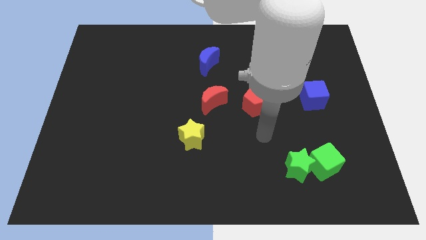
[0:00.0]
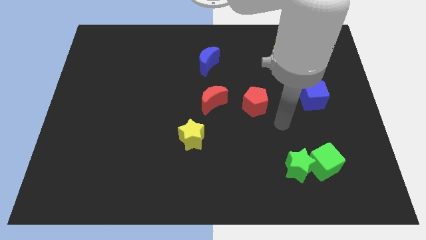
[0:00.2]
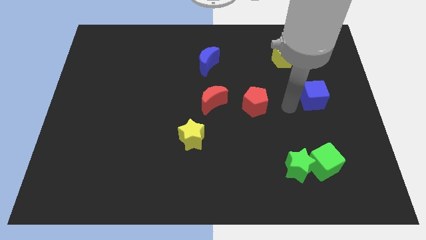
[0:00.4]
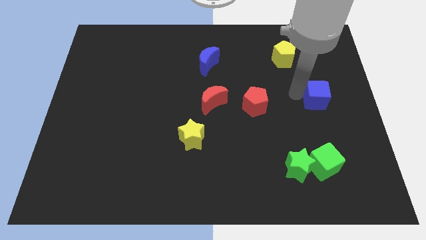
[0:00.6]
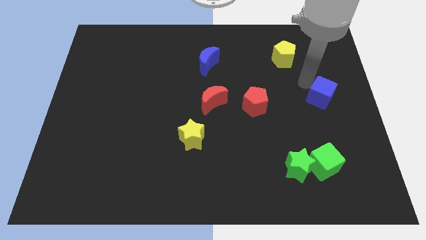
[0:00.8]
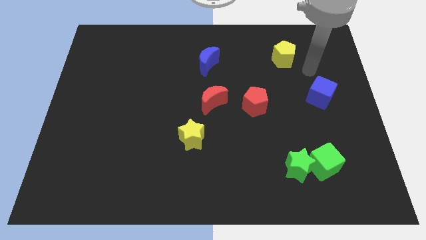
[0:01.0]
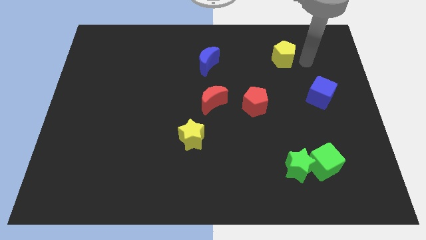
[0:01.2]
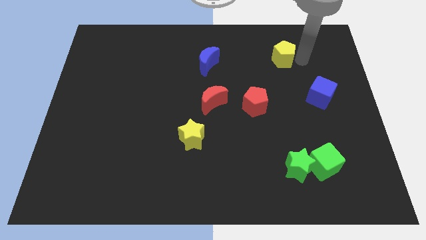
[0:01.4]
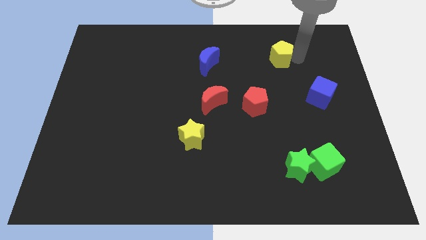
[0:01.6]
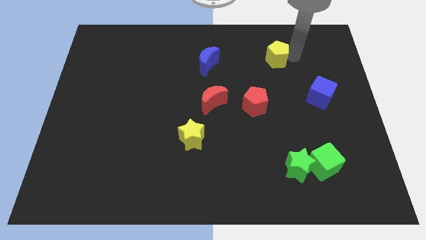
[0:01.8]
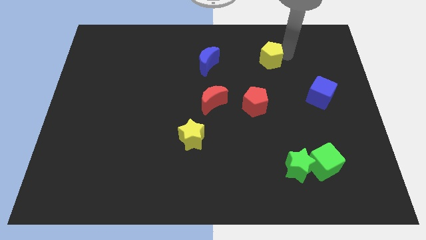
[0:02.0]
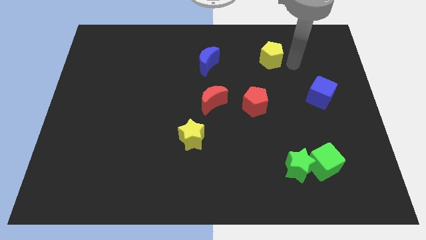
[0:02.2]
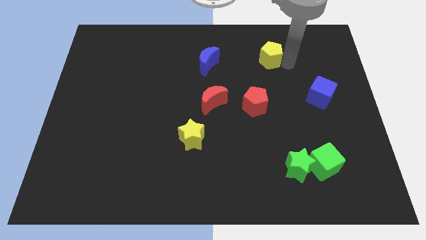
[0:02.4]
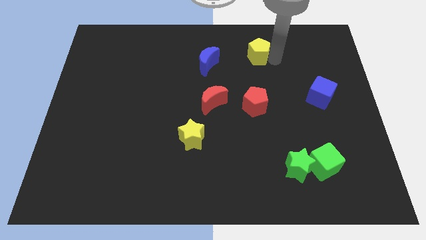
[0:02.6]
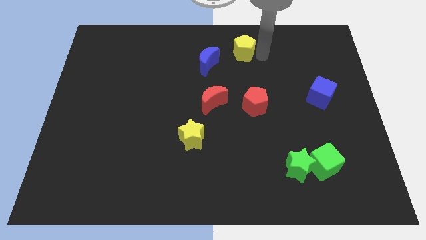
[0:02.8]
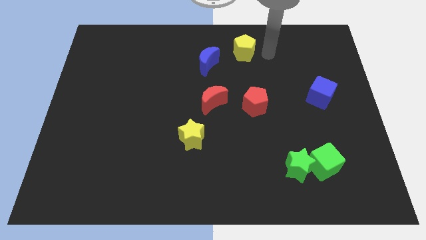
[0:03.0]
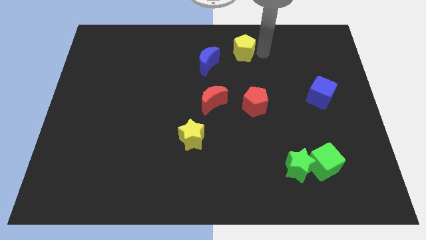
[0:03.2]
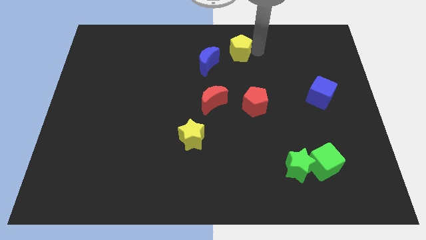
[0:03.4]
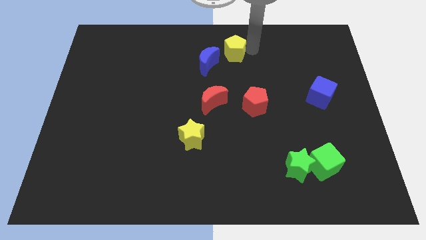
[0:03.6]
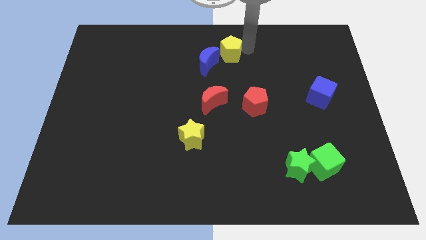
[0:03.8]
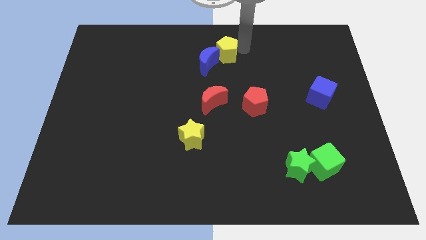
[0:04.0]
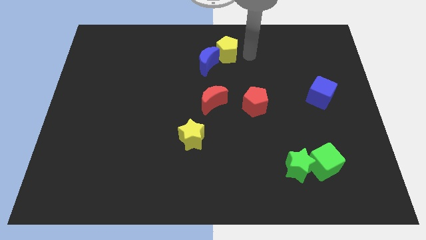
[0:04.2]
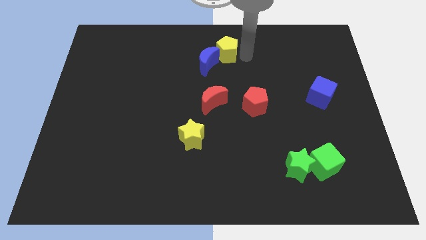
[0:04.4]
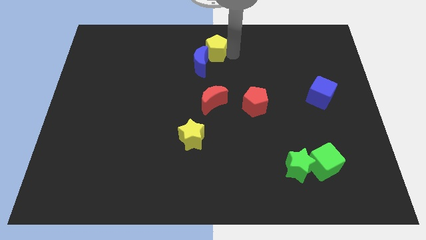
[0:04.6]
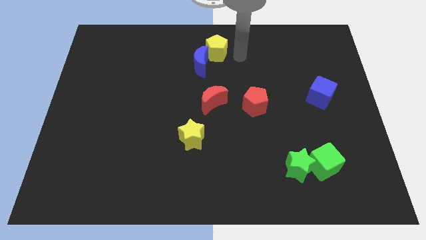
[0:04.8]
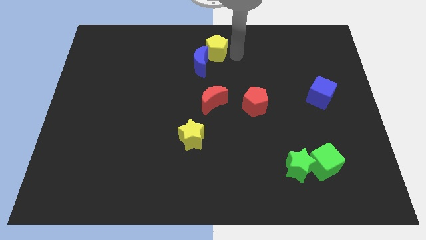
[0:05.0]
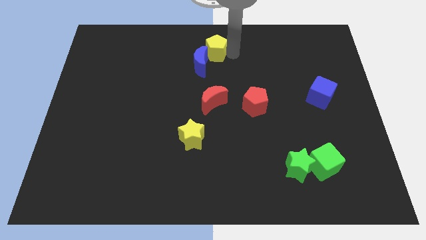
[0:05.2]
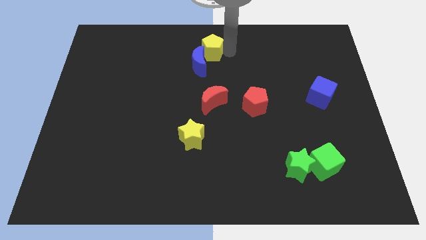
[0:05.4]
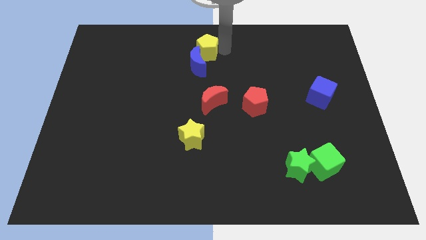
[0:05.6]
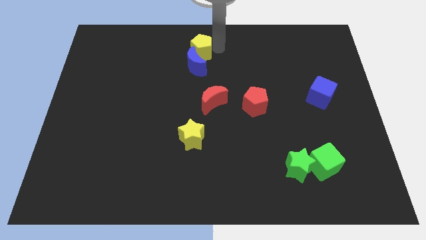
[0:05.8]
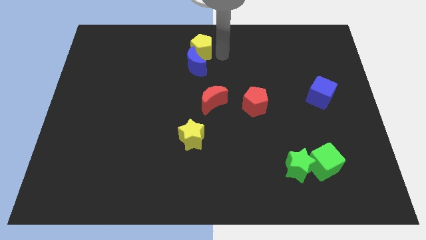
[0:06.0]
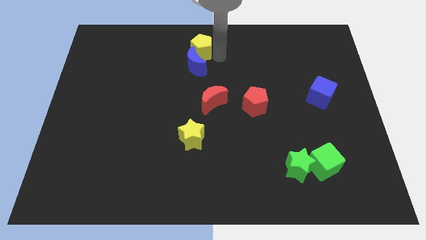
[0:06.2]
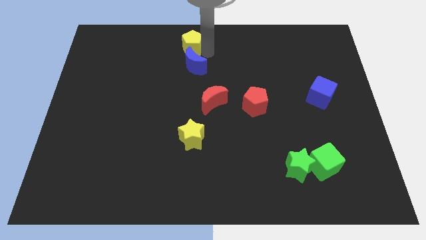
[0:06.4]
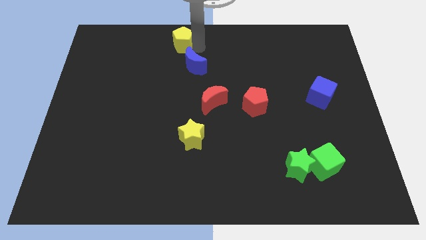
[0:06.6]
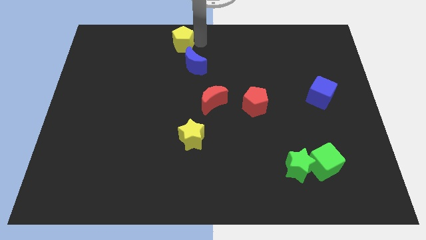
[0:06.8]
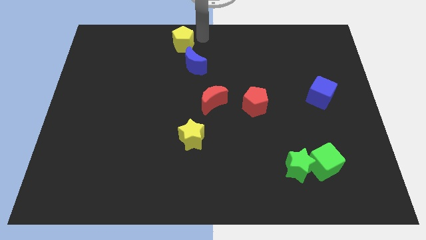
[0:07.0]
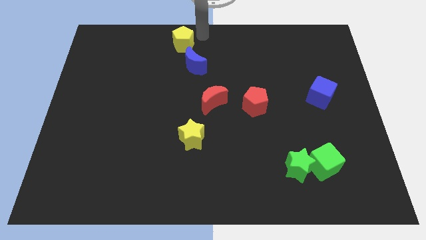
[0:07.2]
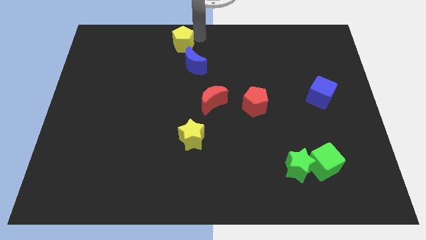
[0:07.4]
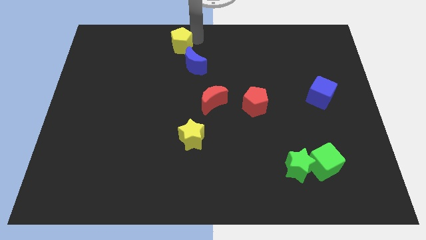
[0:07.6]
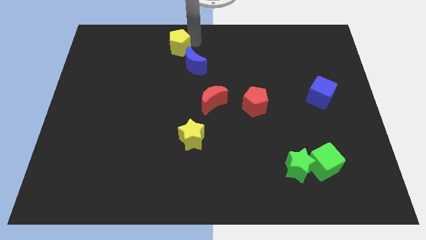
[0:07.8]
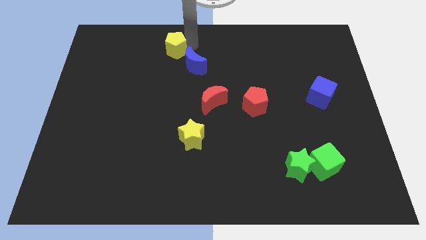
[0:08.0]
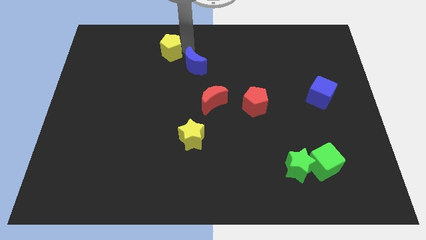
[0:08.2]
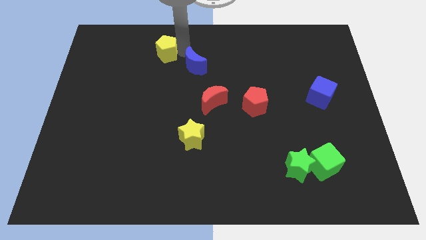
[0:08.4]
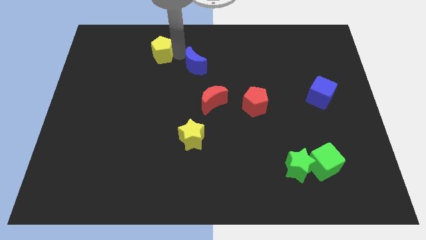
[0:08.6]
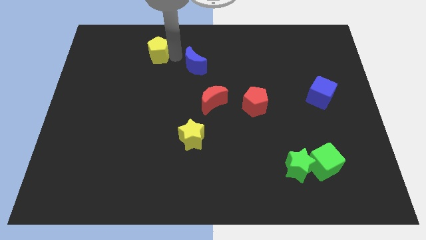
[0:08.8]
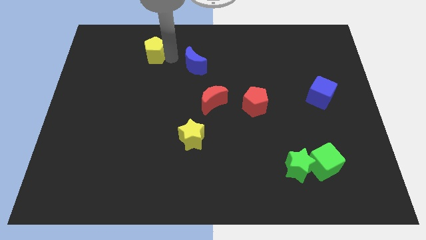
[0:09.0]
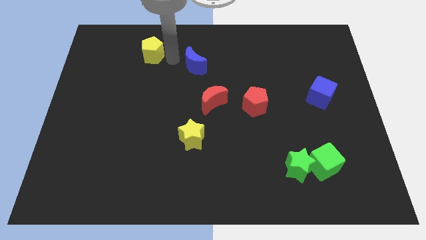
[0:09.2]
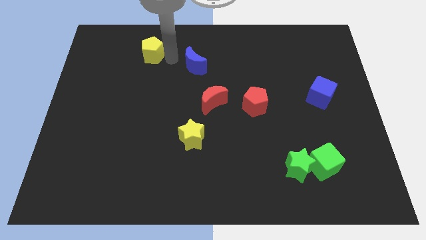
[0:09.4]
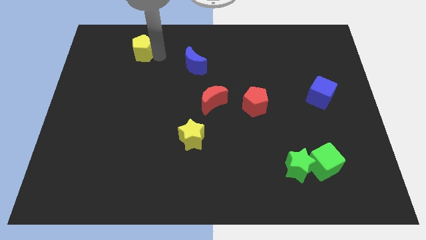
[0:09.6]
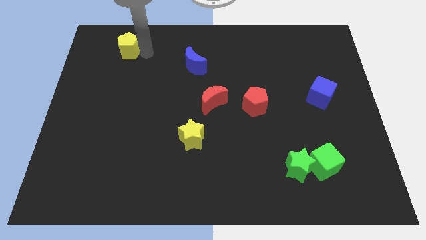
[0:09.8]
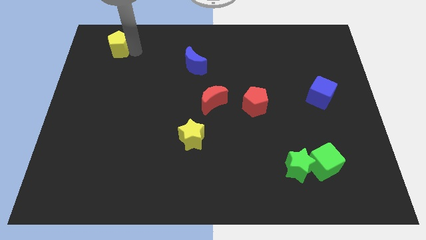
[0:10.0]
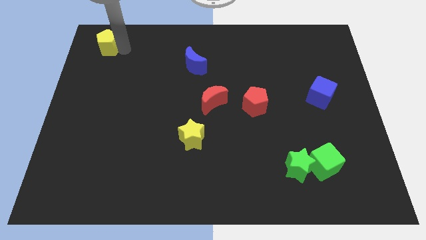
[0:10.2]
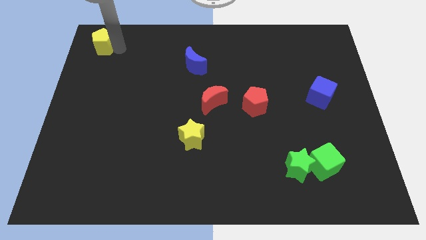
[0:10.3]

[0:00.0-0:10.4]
move the yellow pentagon to the top left of the board

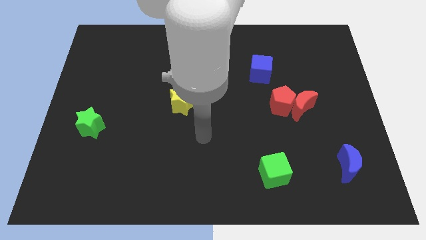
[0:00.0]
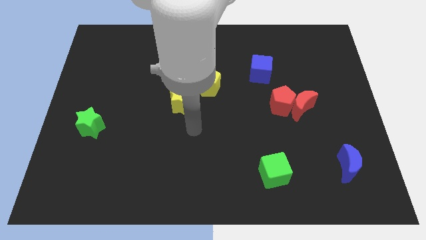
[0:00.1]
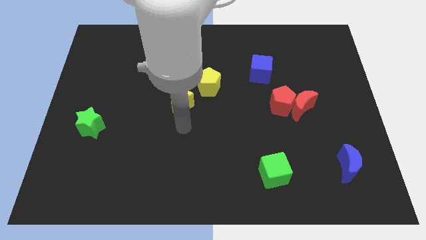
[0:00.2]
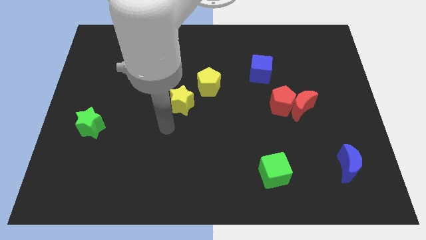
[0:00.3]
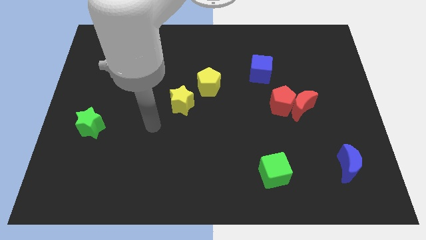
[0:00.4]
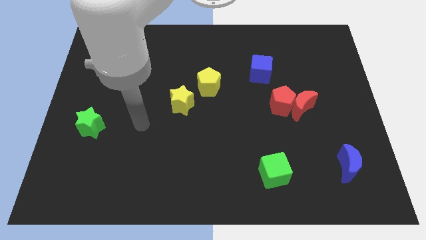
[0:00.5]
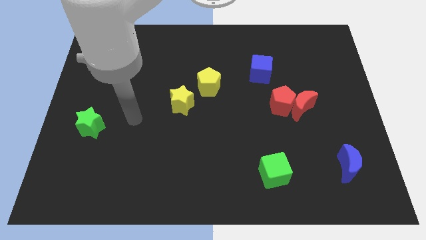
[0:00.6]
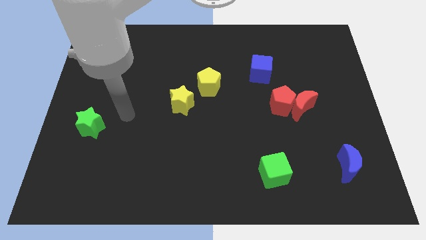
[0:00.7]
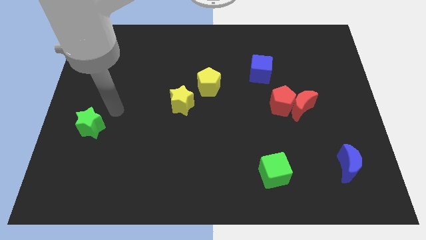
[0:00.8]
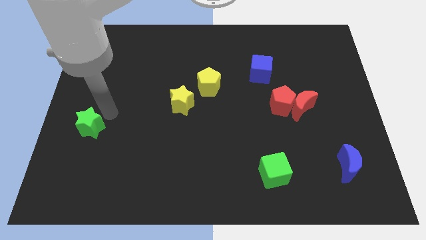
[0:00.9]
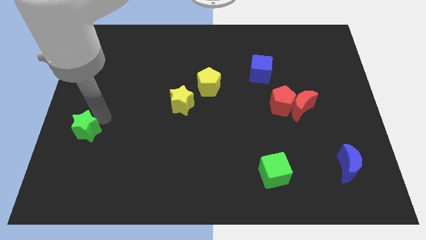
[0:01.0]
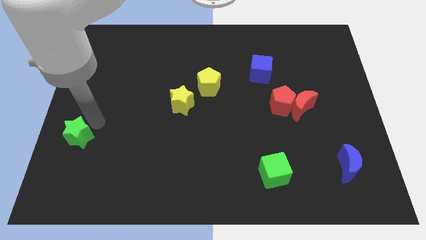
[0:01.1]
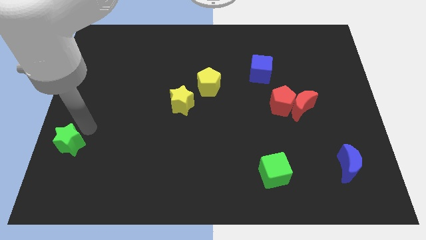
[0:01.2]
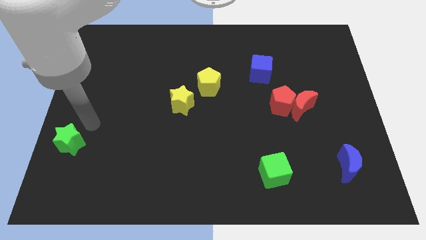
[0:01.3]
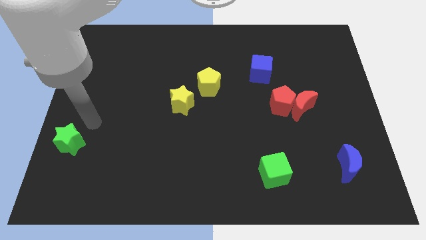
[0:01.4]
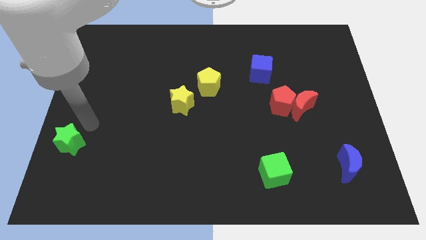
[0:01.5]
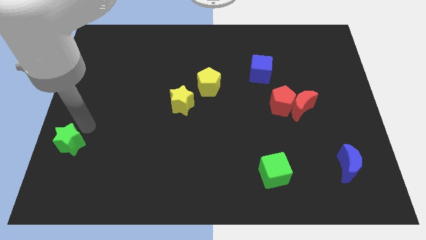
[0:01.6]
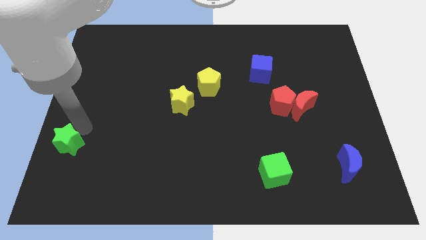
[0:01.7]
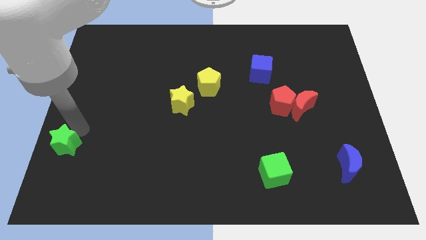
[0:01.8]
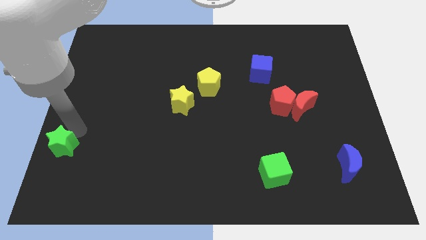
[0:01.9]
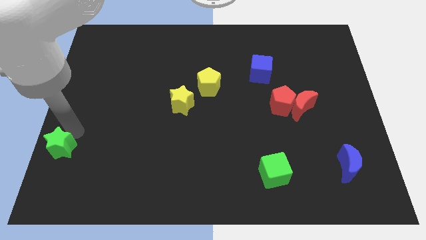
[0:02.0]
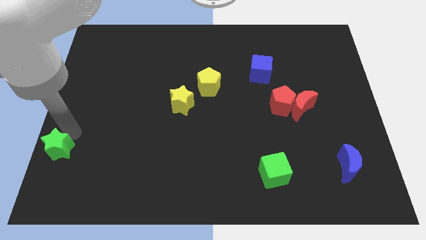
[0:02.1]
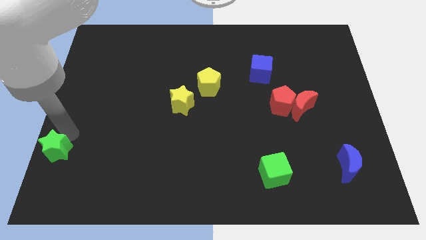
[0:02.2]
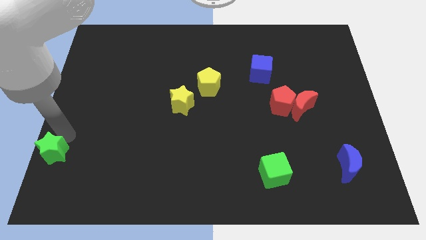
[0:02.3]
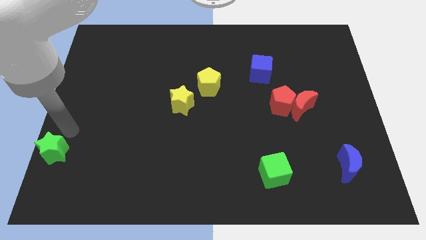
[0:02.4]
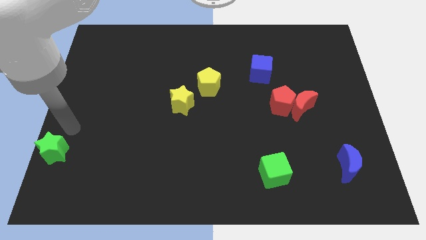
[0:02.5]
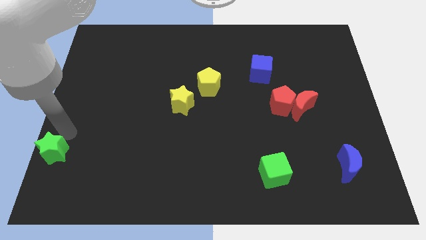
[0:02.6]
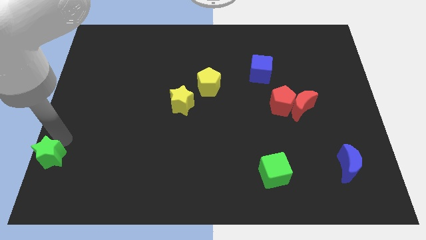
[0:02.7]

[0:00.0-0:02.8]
move the green star to the lower left corner
